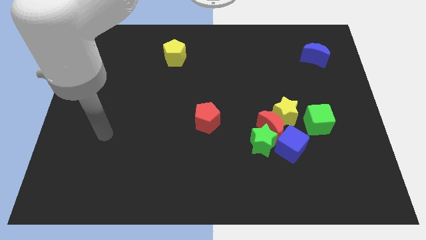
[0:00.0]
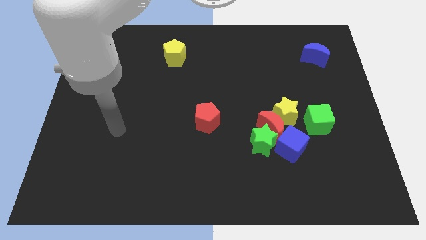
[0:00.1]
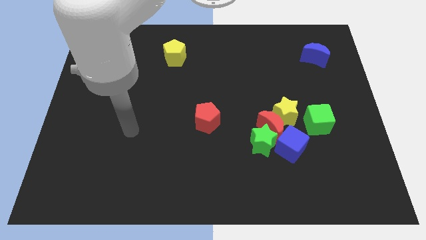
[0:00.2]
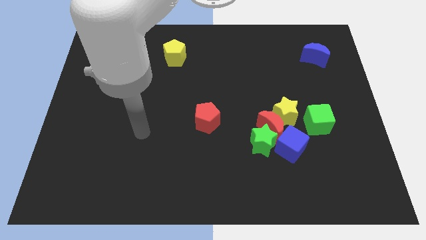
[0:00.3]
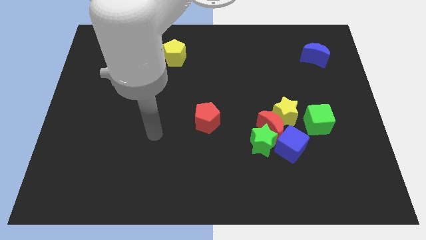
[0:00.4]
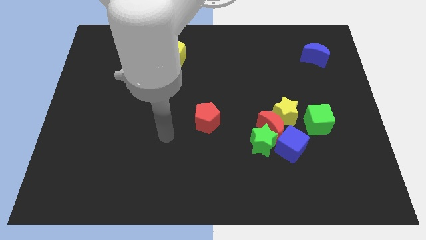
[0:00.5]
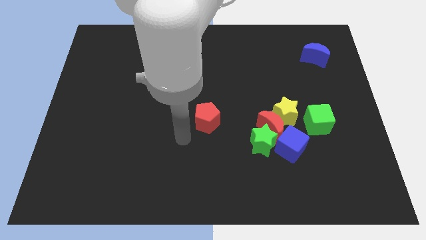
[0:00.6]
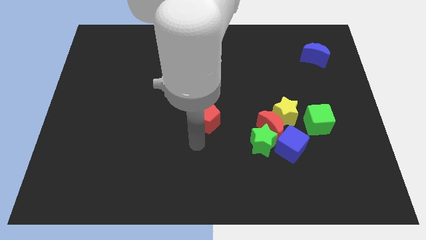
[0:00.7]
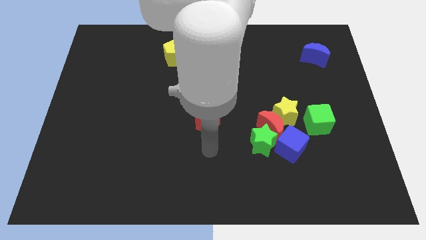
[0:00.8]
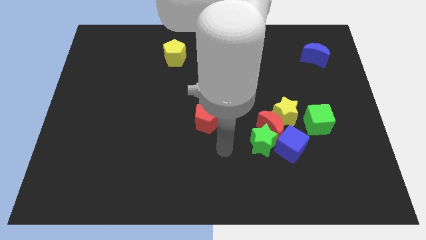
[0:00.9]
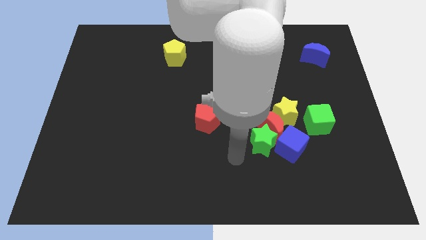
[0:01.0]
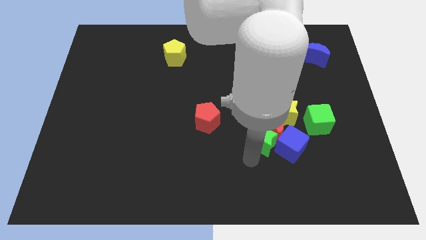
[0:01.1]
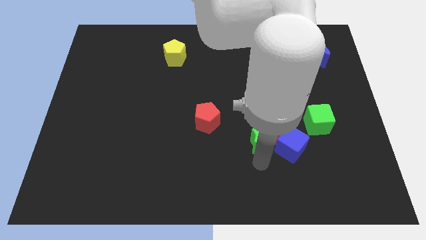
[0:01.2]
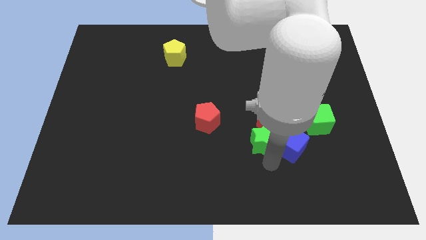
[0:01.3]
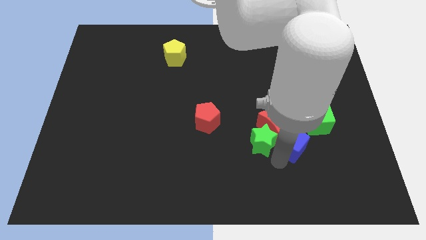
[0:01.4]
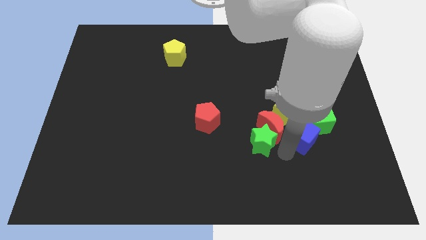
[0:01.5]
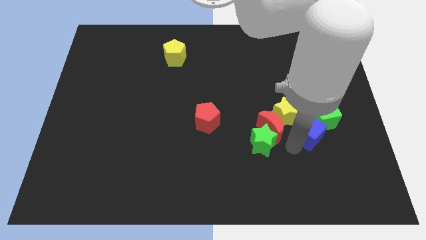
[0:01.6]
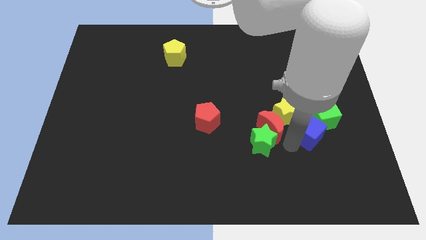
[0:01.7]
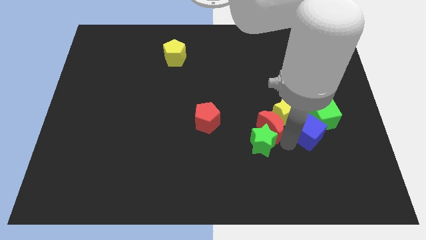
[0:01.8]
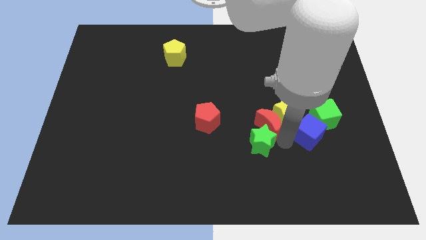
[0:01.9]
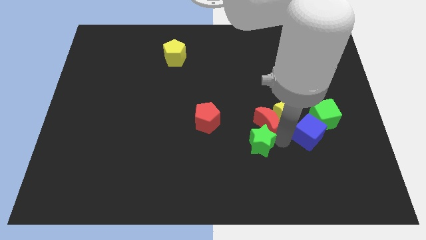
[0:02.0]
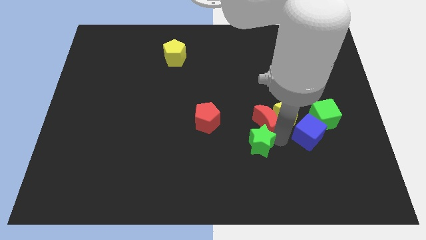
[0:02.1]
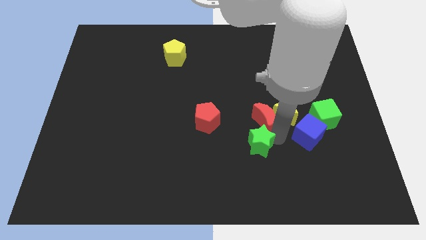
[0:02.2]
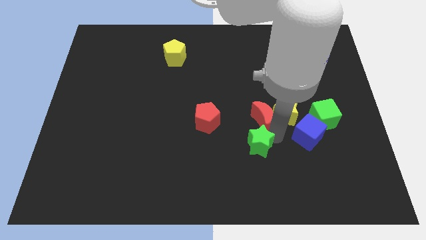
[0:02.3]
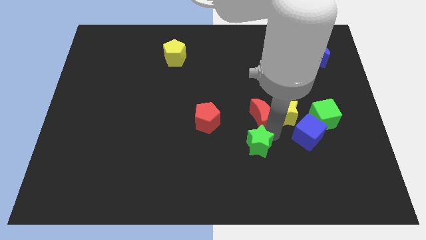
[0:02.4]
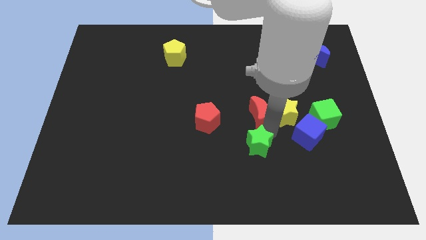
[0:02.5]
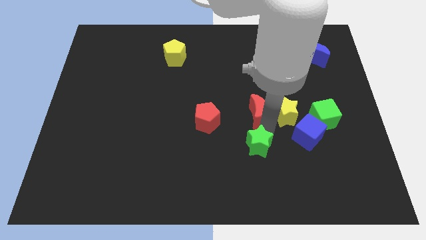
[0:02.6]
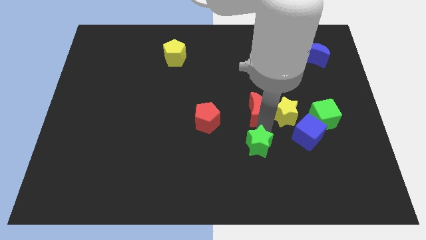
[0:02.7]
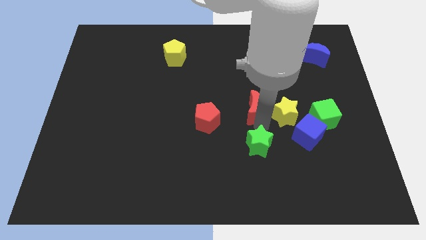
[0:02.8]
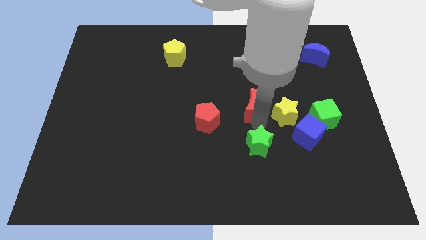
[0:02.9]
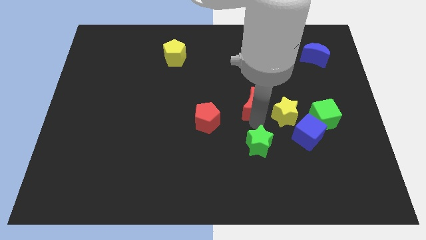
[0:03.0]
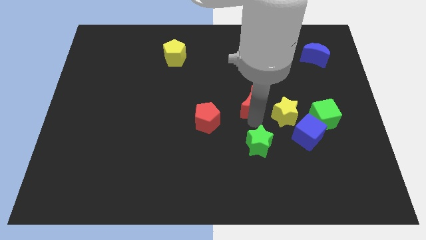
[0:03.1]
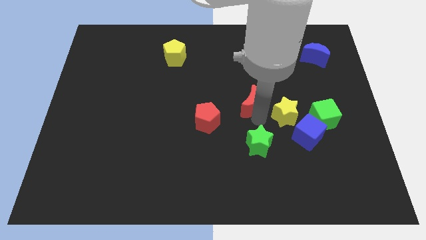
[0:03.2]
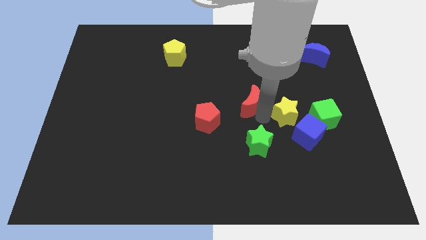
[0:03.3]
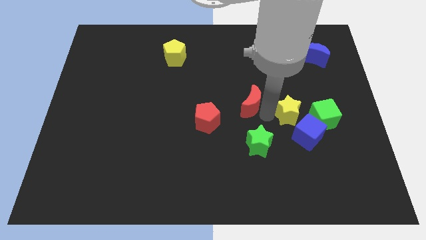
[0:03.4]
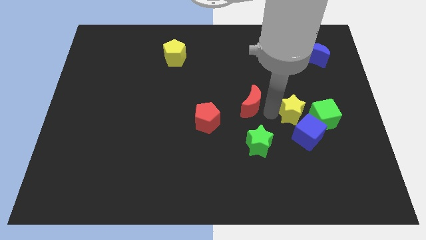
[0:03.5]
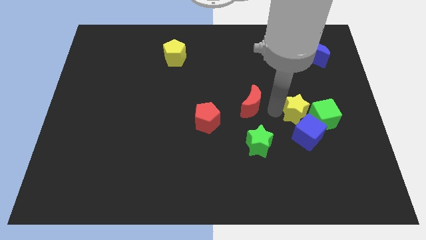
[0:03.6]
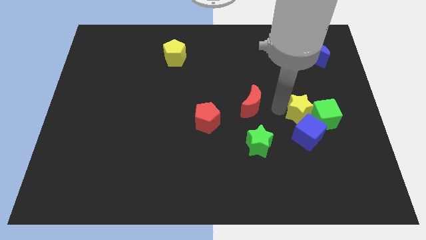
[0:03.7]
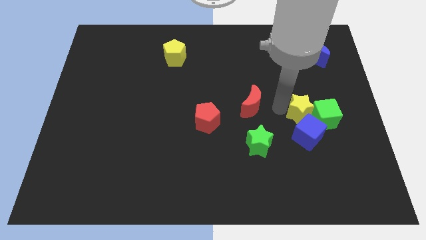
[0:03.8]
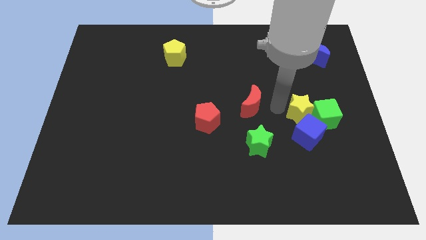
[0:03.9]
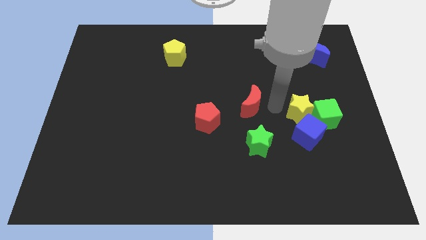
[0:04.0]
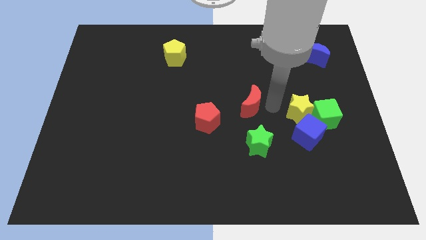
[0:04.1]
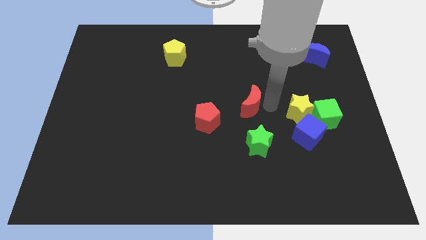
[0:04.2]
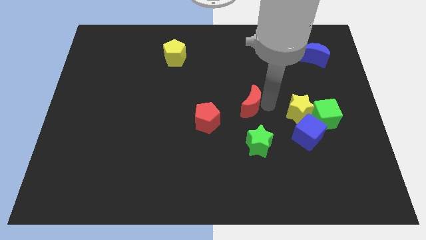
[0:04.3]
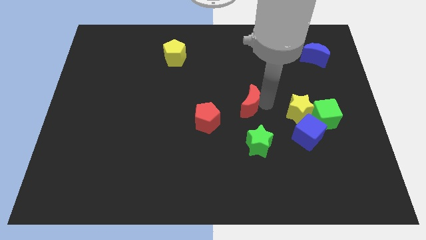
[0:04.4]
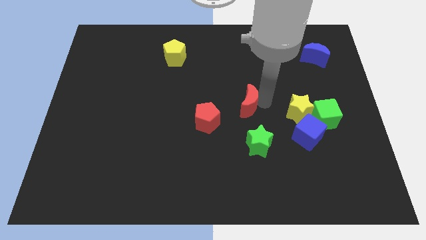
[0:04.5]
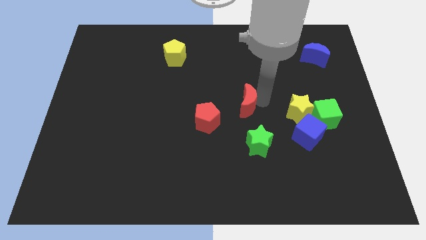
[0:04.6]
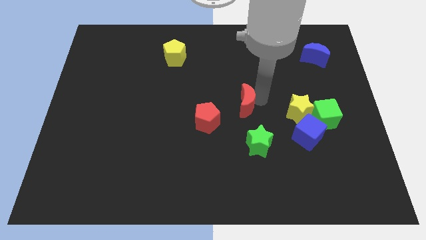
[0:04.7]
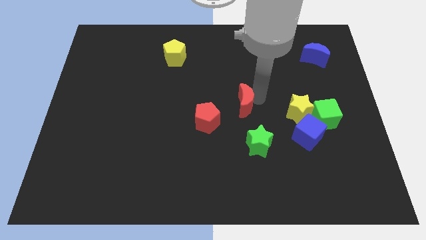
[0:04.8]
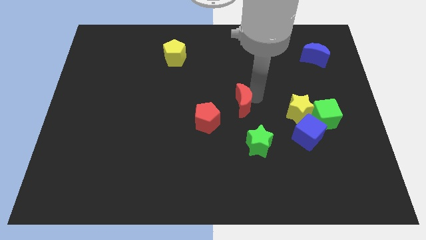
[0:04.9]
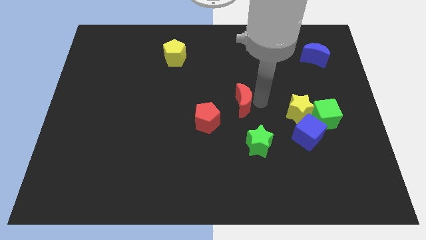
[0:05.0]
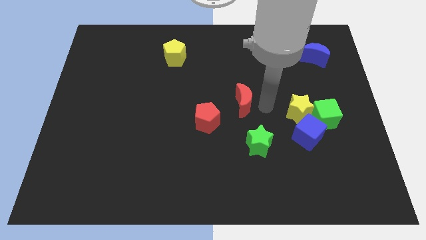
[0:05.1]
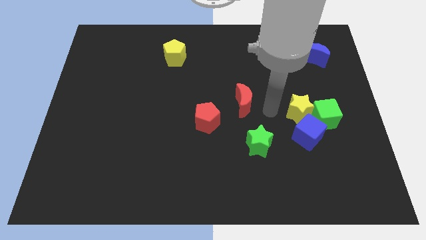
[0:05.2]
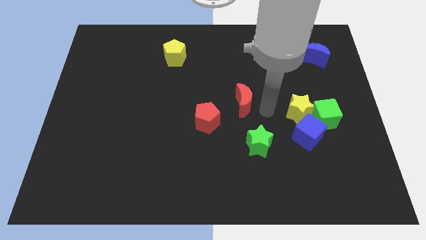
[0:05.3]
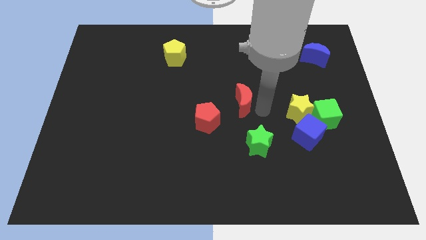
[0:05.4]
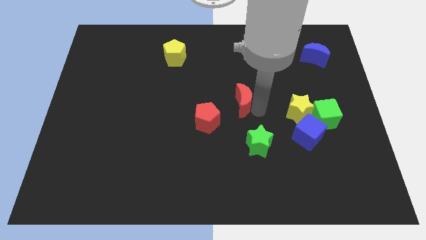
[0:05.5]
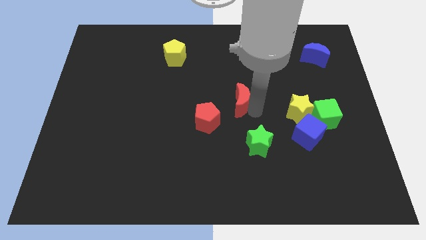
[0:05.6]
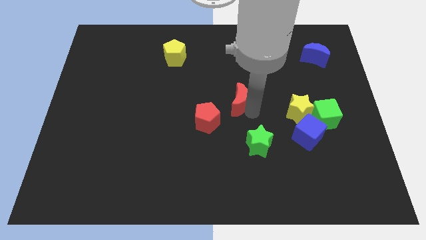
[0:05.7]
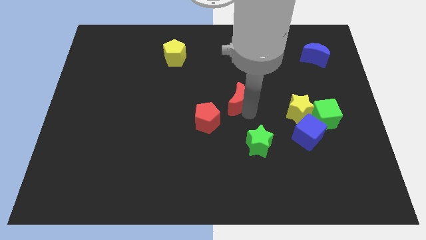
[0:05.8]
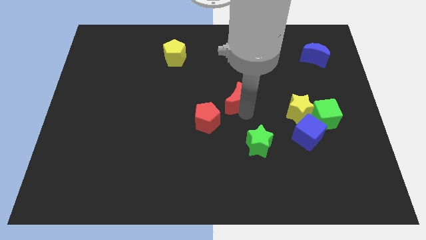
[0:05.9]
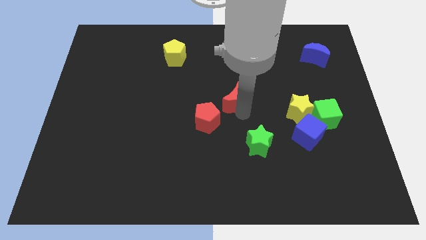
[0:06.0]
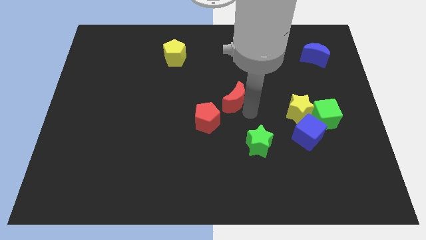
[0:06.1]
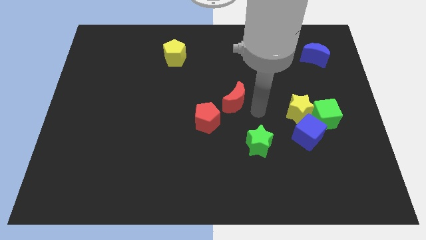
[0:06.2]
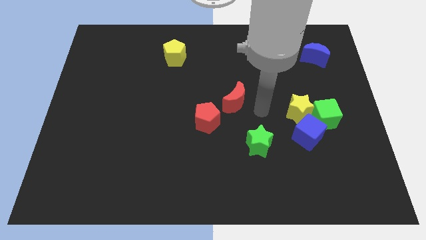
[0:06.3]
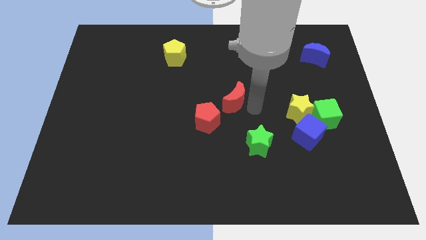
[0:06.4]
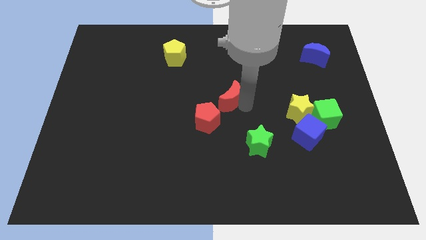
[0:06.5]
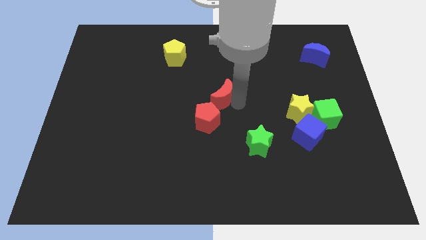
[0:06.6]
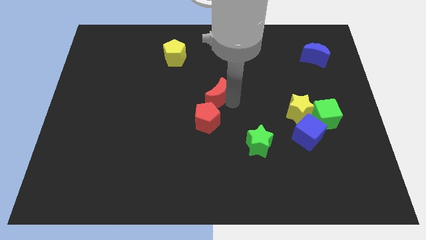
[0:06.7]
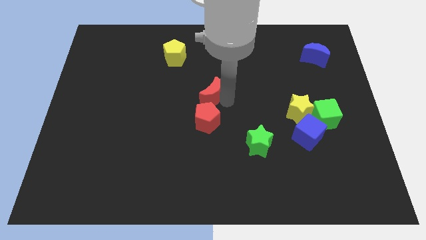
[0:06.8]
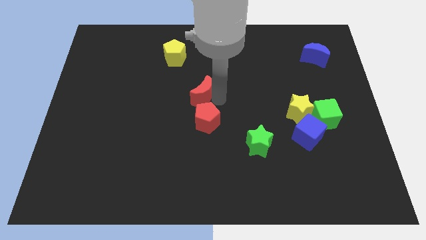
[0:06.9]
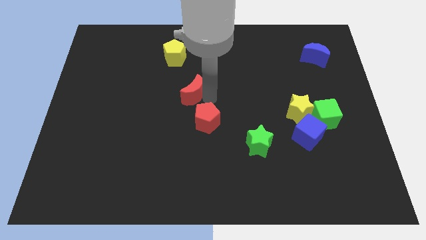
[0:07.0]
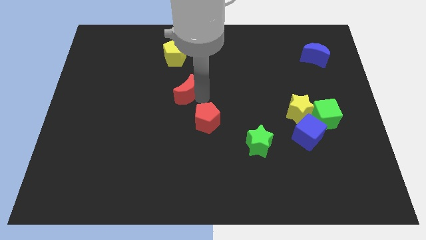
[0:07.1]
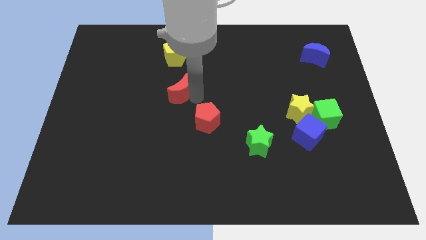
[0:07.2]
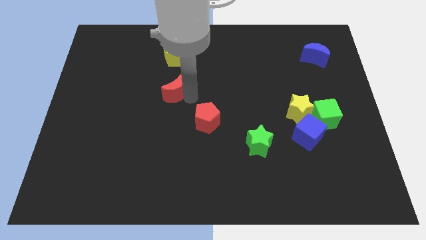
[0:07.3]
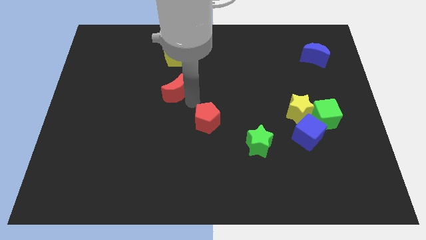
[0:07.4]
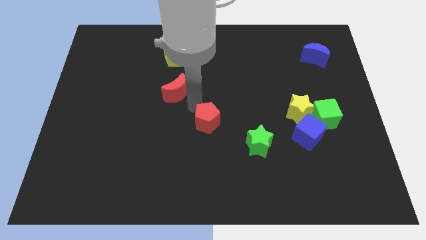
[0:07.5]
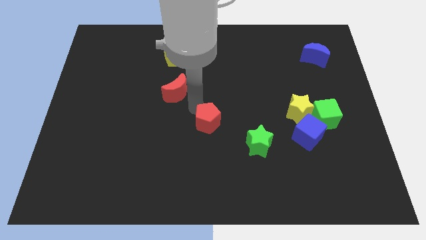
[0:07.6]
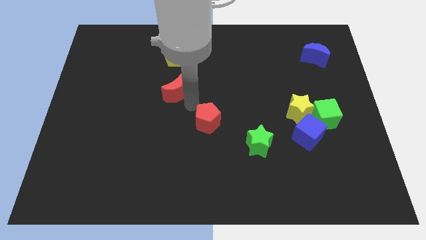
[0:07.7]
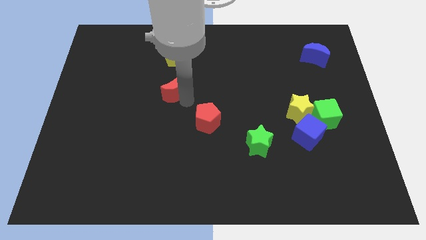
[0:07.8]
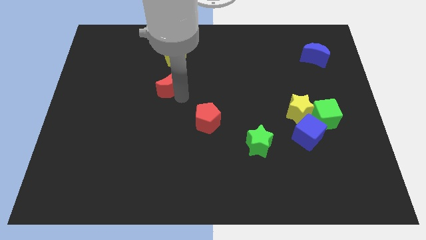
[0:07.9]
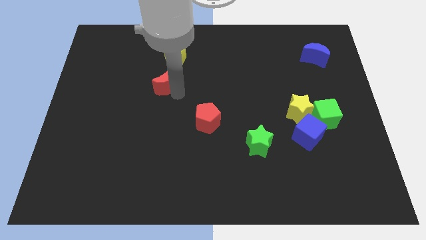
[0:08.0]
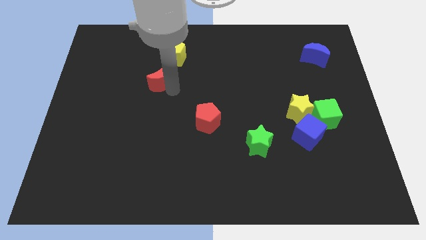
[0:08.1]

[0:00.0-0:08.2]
push the red moon to the bottom left side of the yellow pentagon
